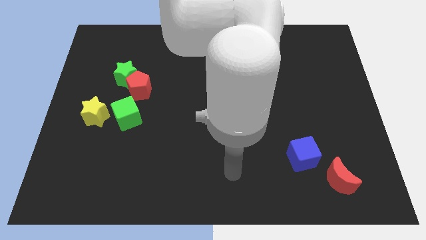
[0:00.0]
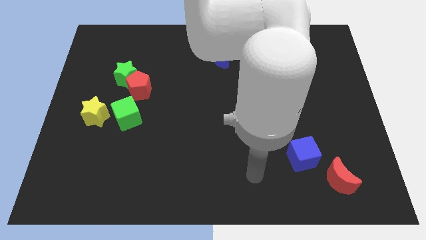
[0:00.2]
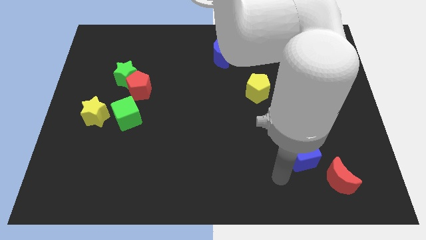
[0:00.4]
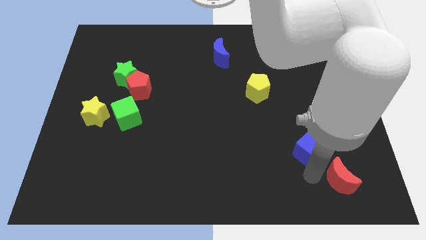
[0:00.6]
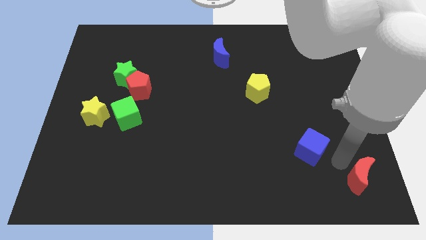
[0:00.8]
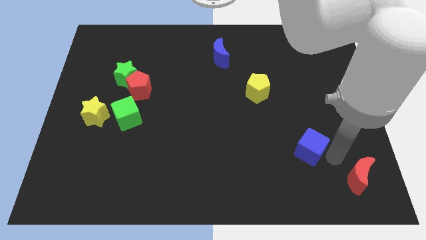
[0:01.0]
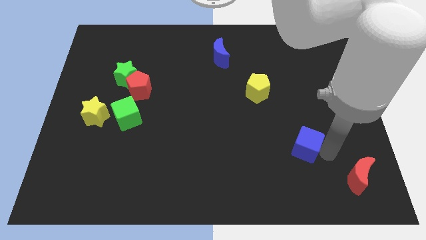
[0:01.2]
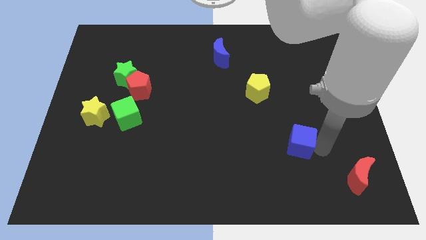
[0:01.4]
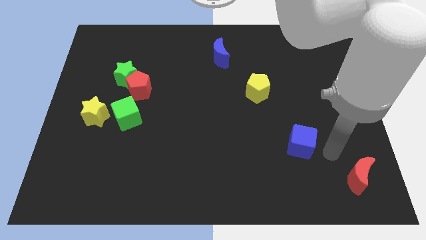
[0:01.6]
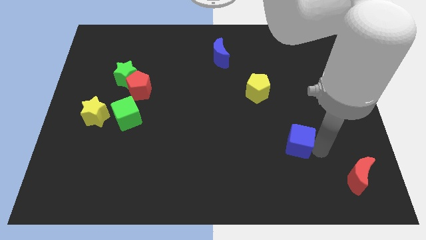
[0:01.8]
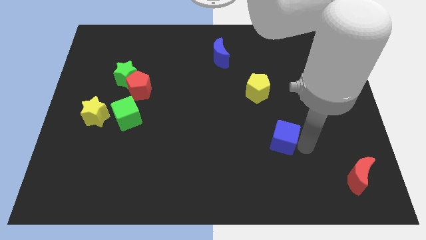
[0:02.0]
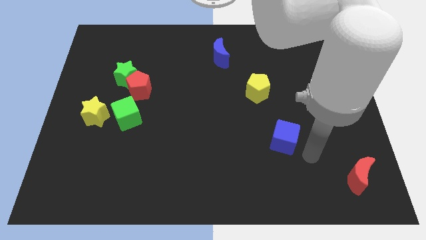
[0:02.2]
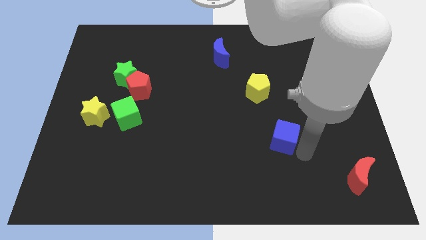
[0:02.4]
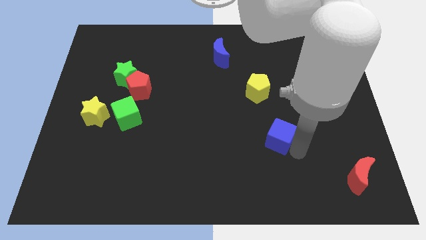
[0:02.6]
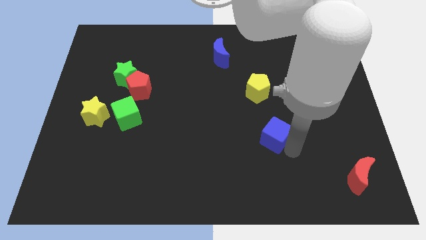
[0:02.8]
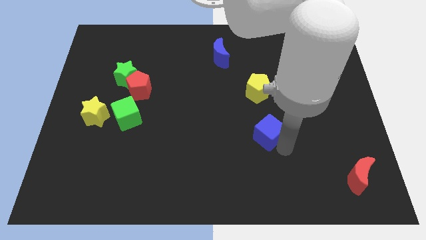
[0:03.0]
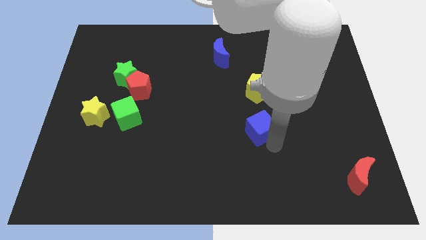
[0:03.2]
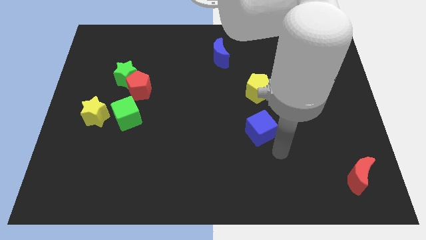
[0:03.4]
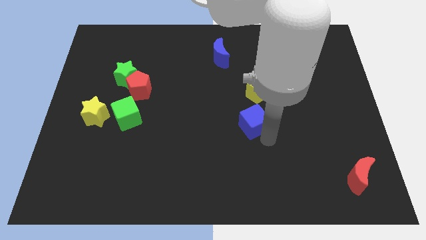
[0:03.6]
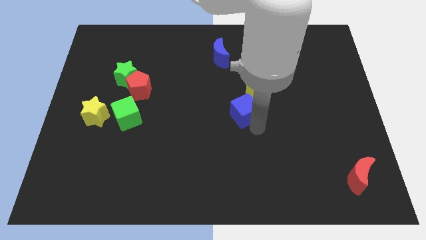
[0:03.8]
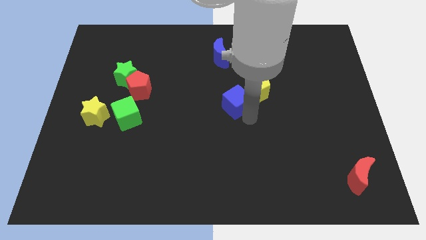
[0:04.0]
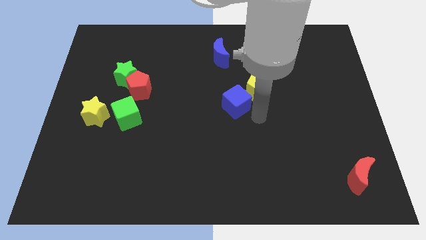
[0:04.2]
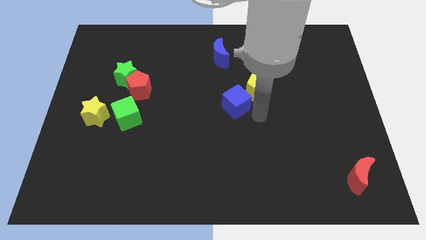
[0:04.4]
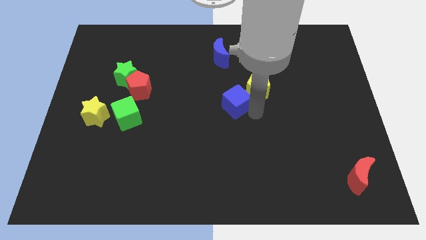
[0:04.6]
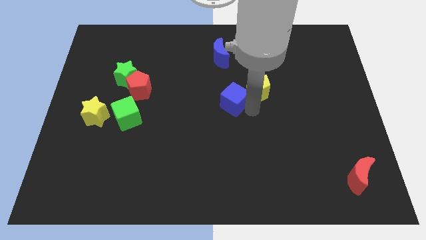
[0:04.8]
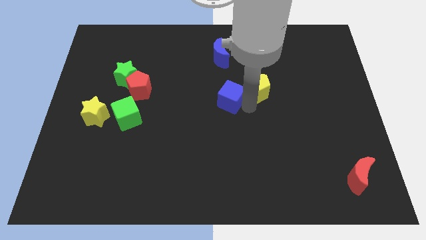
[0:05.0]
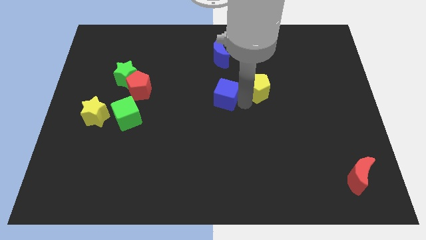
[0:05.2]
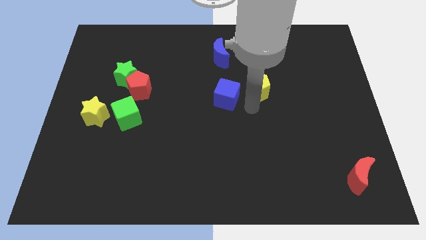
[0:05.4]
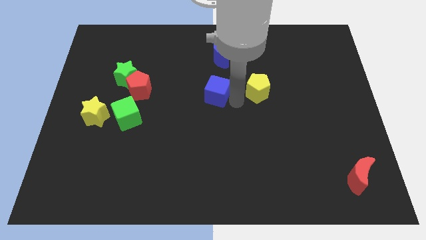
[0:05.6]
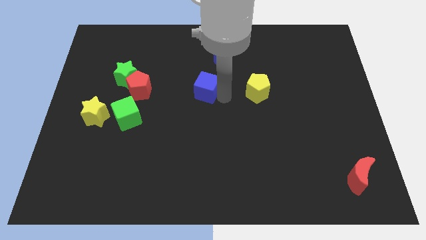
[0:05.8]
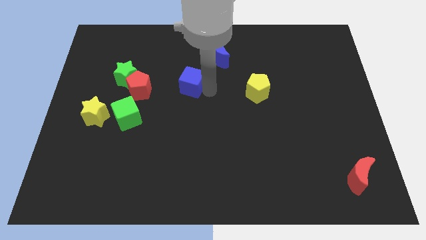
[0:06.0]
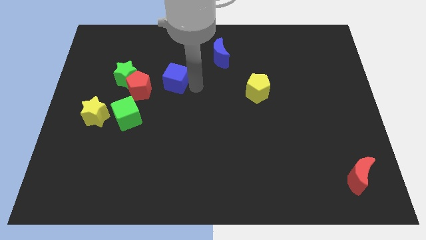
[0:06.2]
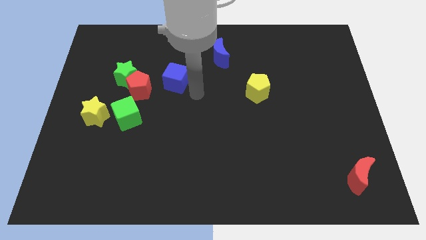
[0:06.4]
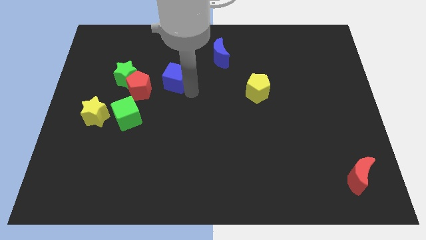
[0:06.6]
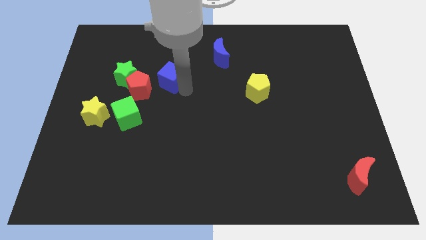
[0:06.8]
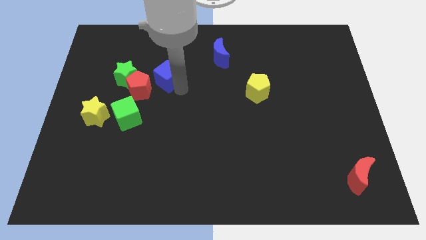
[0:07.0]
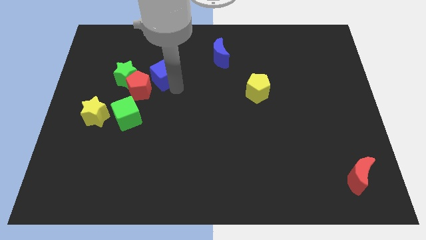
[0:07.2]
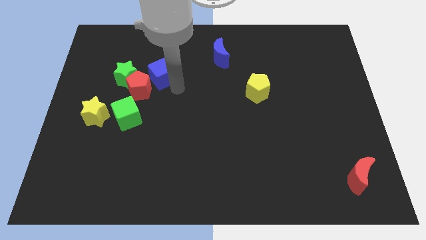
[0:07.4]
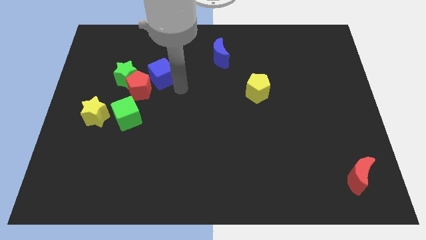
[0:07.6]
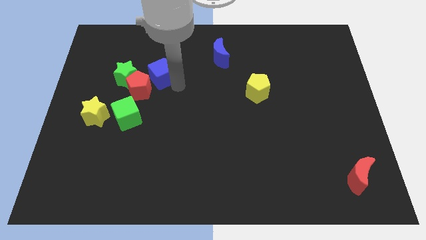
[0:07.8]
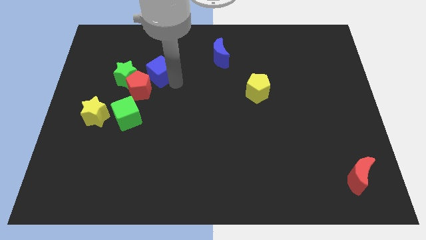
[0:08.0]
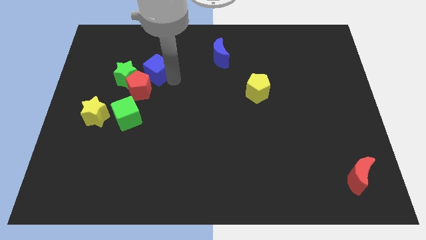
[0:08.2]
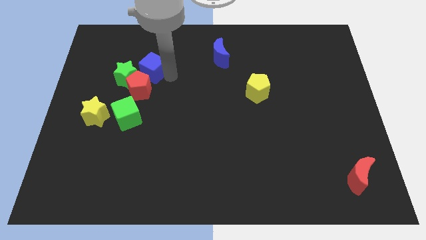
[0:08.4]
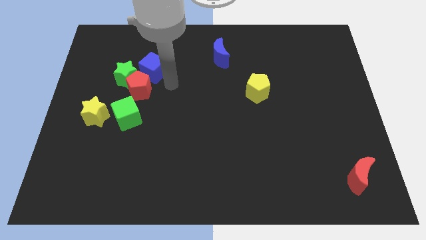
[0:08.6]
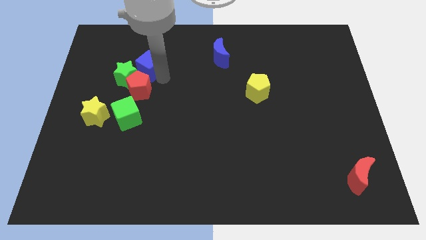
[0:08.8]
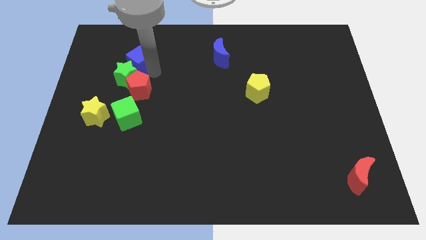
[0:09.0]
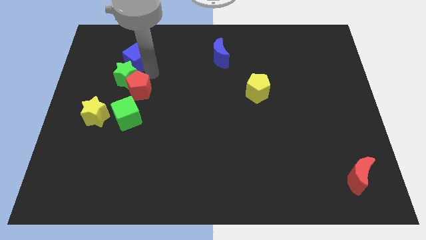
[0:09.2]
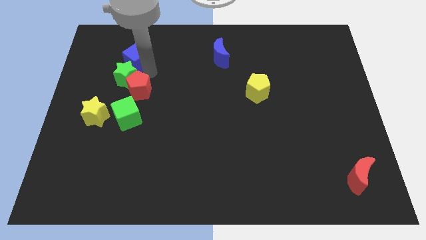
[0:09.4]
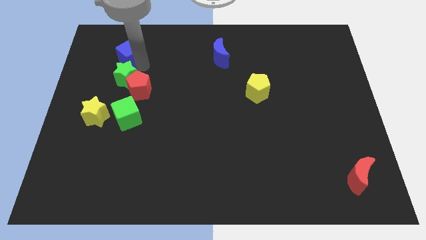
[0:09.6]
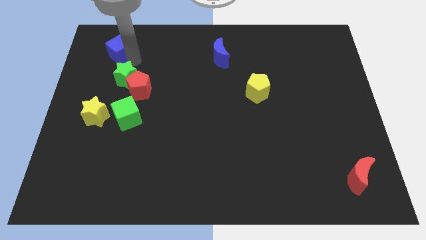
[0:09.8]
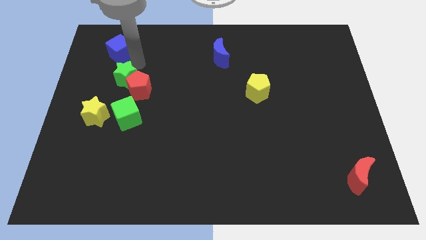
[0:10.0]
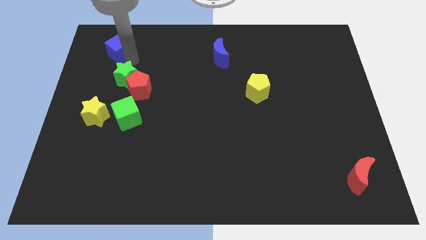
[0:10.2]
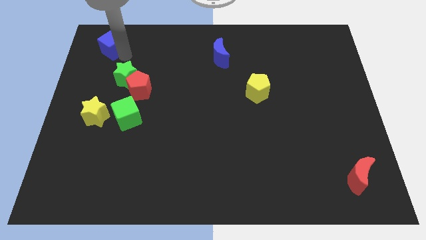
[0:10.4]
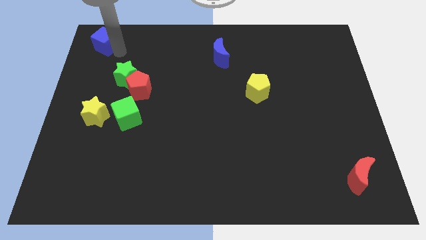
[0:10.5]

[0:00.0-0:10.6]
slide the blue cube to the top left
